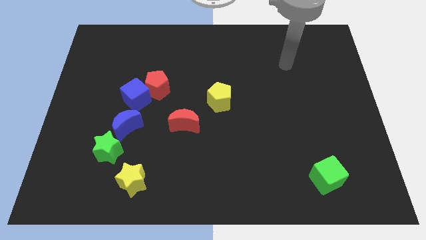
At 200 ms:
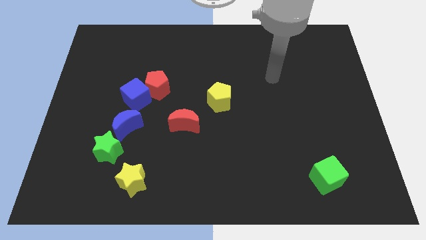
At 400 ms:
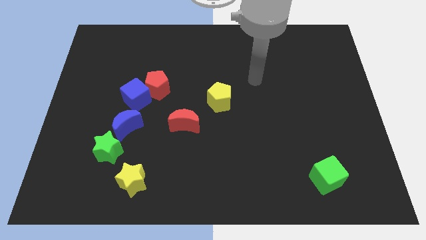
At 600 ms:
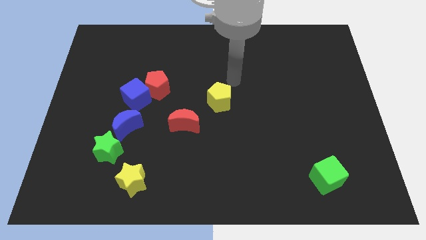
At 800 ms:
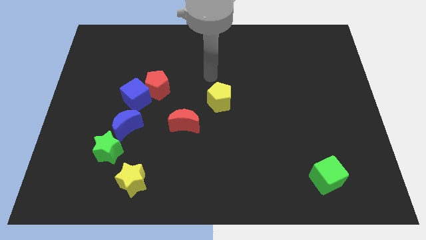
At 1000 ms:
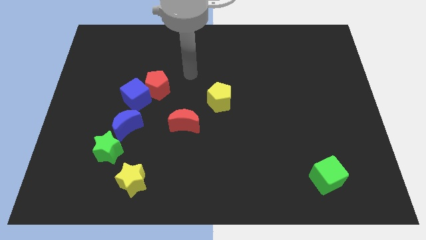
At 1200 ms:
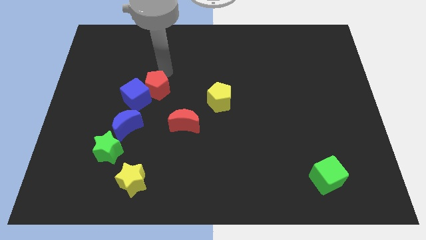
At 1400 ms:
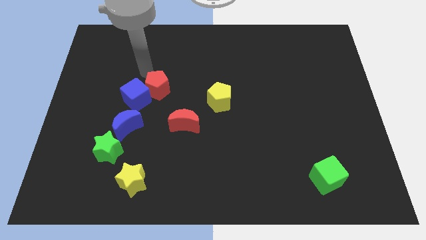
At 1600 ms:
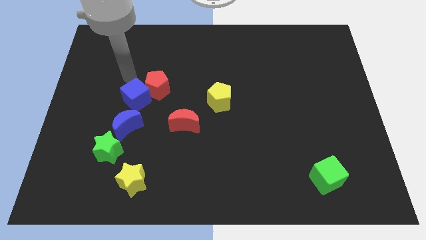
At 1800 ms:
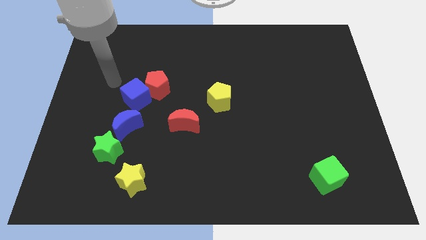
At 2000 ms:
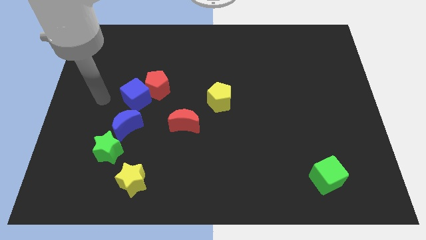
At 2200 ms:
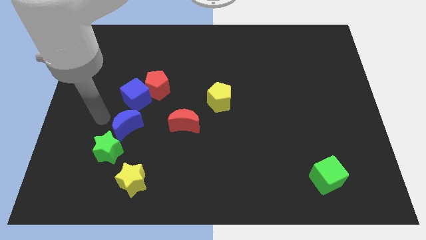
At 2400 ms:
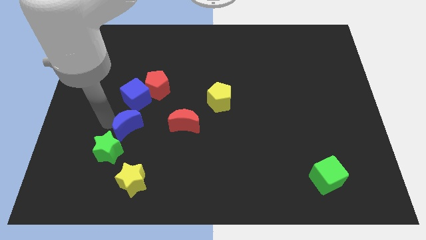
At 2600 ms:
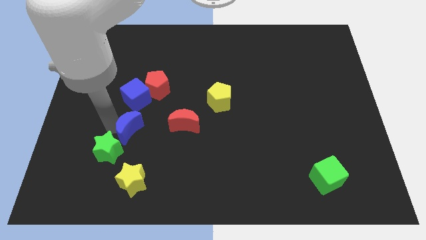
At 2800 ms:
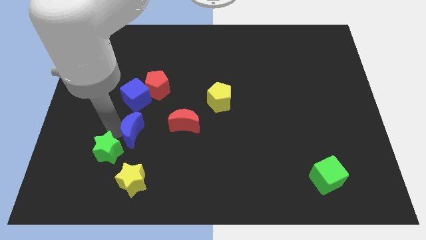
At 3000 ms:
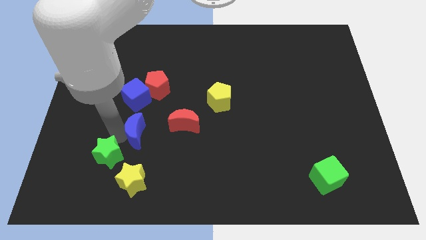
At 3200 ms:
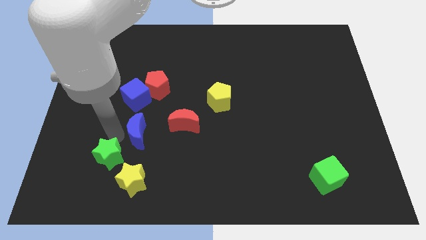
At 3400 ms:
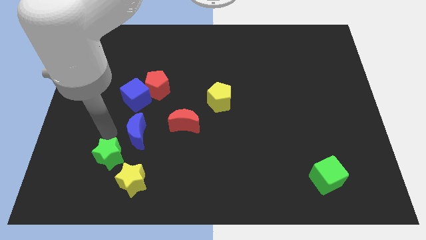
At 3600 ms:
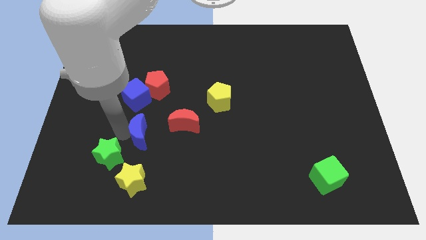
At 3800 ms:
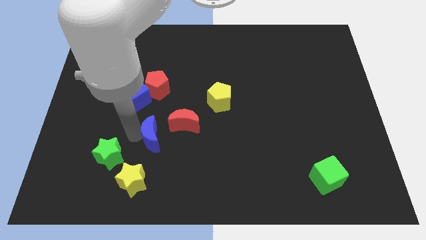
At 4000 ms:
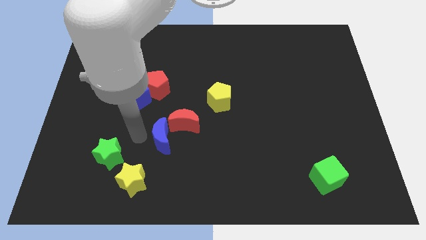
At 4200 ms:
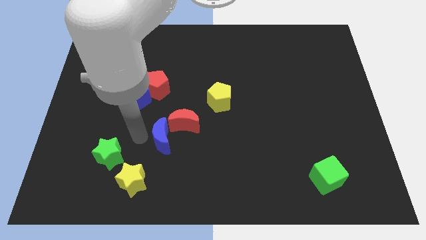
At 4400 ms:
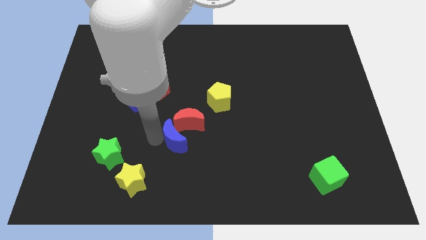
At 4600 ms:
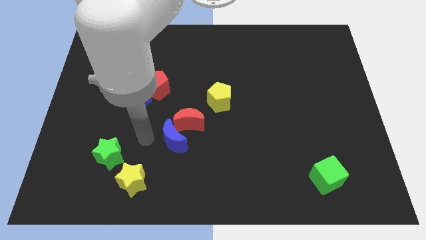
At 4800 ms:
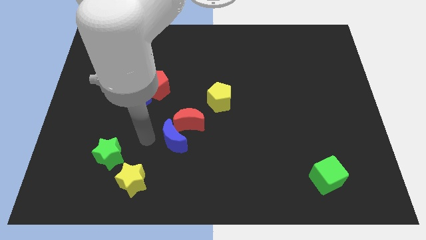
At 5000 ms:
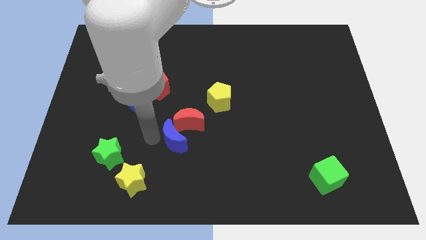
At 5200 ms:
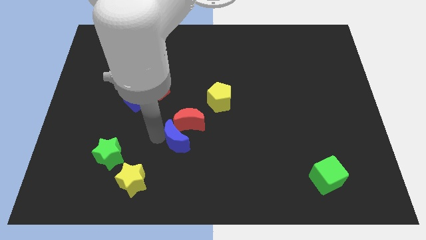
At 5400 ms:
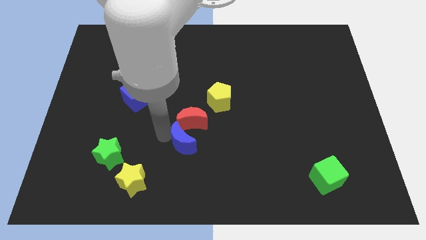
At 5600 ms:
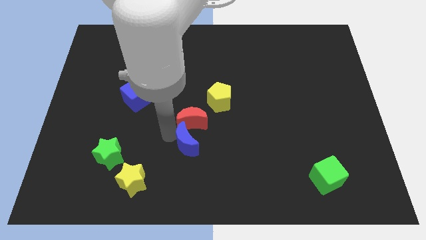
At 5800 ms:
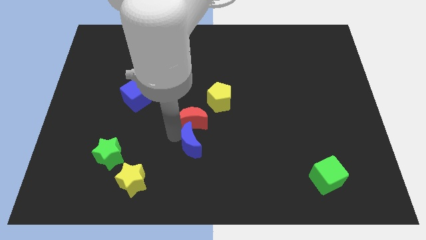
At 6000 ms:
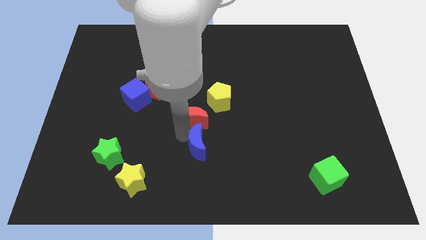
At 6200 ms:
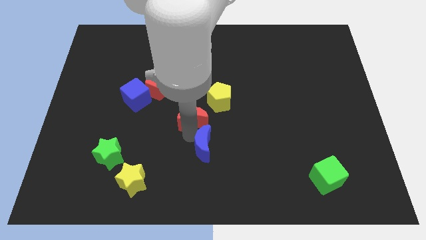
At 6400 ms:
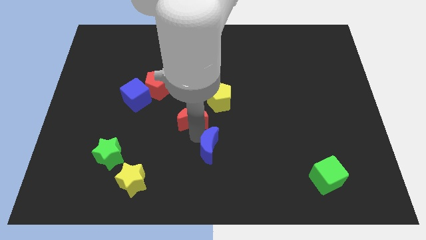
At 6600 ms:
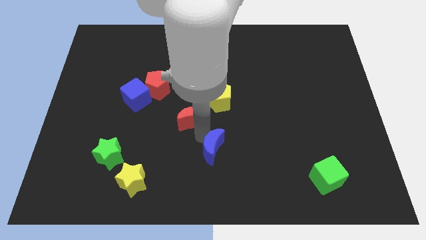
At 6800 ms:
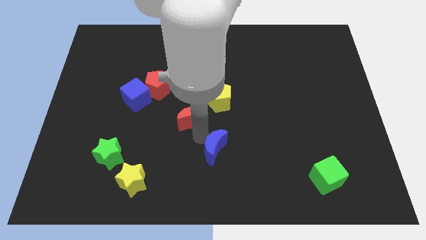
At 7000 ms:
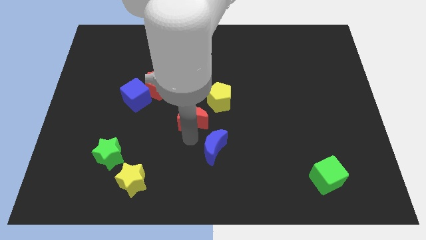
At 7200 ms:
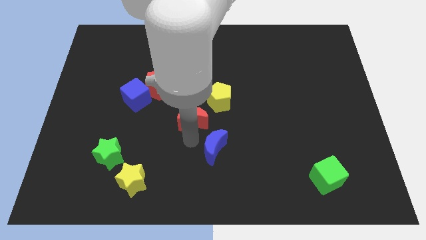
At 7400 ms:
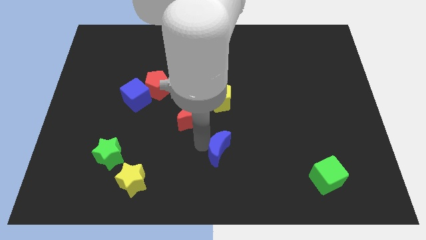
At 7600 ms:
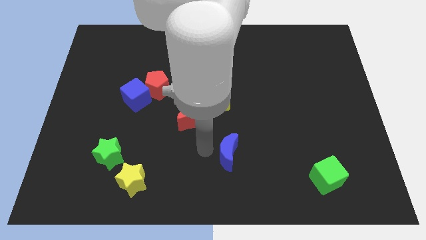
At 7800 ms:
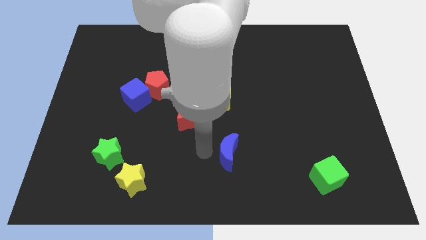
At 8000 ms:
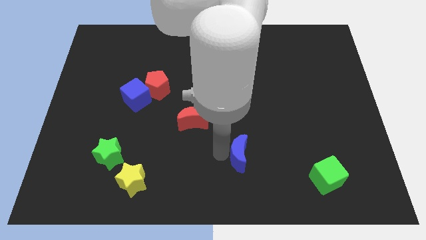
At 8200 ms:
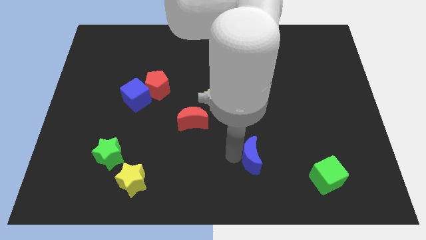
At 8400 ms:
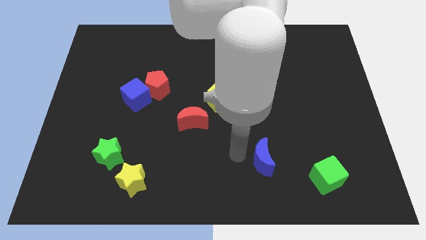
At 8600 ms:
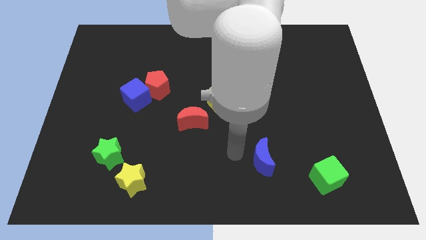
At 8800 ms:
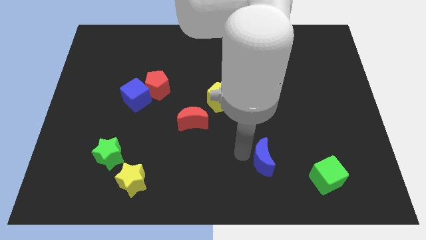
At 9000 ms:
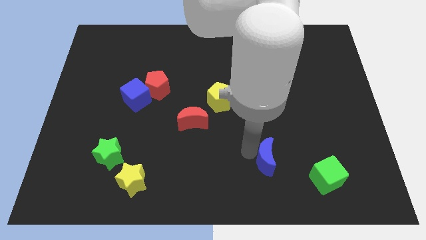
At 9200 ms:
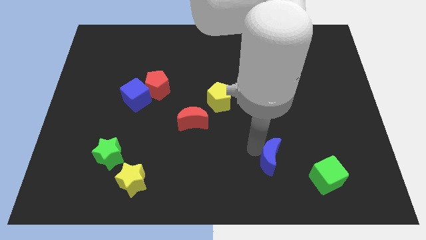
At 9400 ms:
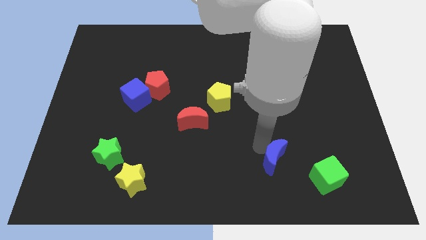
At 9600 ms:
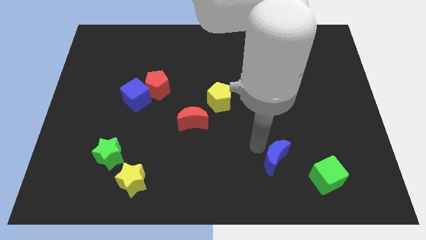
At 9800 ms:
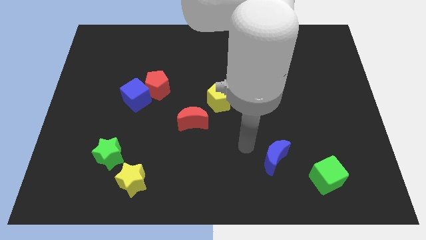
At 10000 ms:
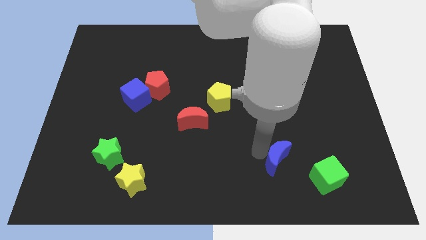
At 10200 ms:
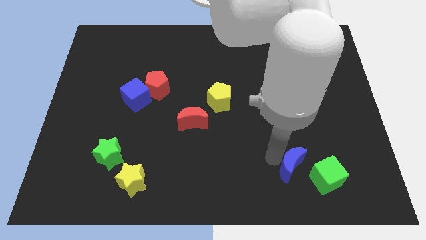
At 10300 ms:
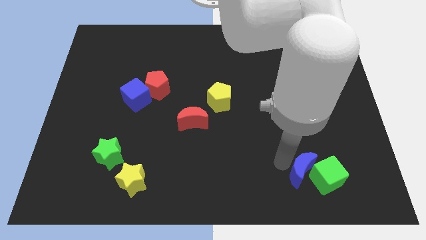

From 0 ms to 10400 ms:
push the blue moon towards the green cube

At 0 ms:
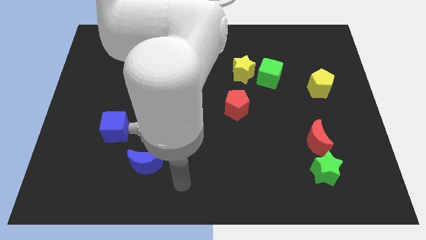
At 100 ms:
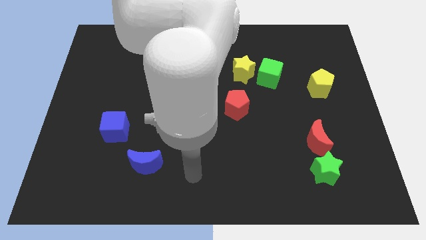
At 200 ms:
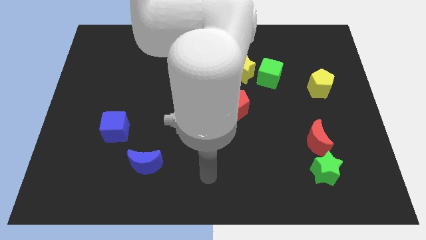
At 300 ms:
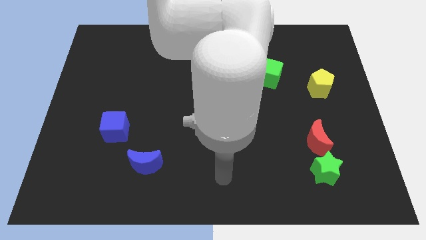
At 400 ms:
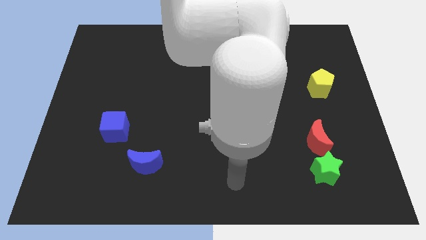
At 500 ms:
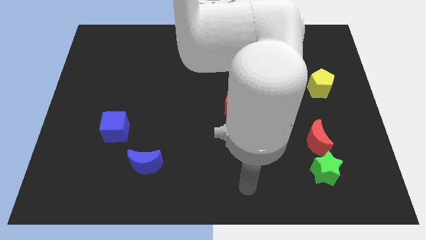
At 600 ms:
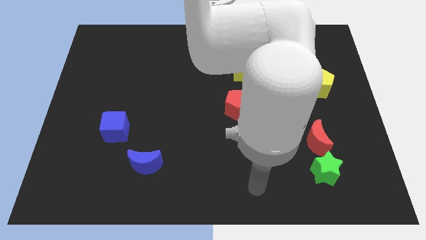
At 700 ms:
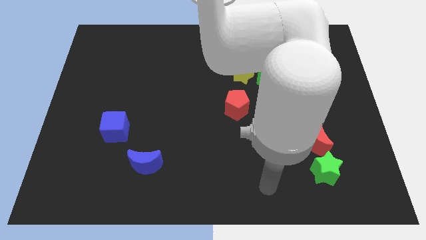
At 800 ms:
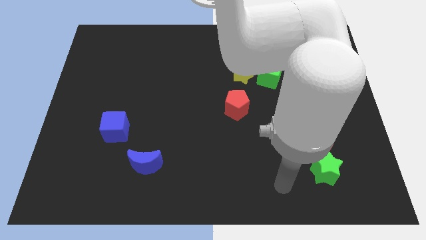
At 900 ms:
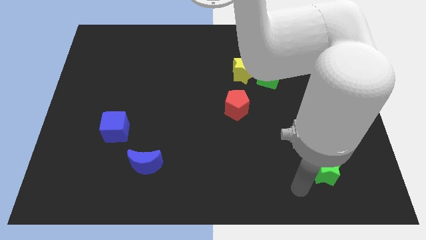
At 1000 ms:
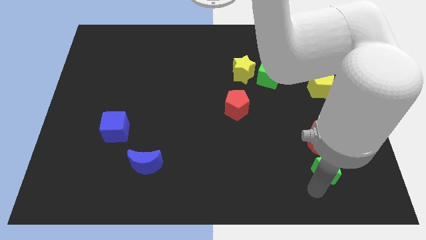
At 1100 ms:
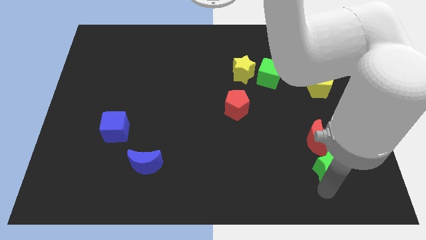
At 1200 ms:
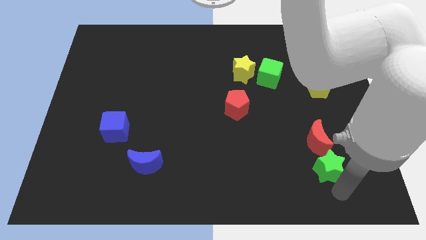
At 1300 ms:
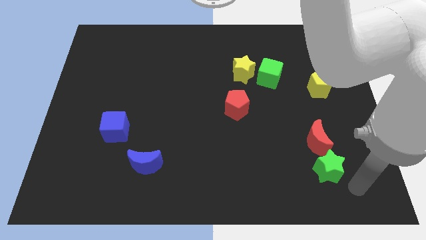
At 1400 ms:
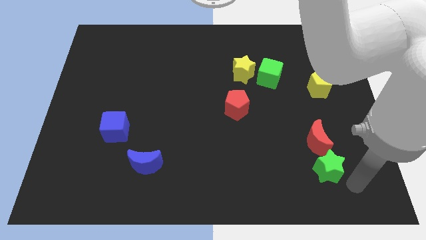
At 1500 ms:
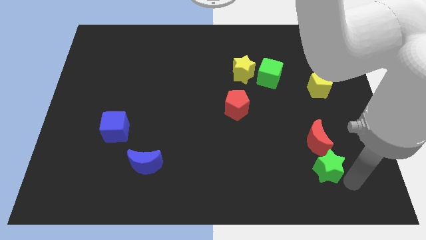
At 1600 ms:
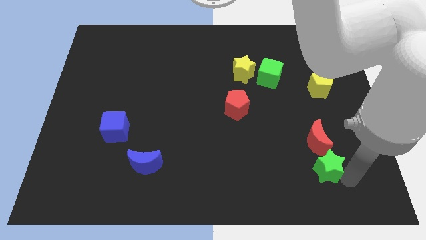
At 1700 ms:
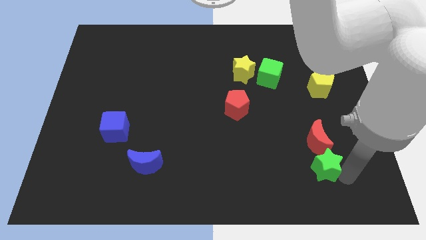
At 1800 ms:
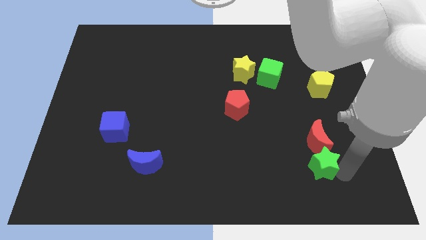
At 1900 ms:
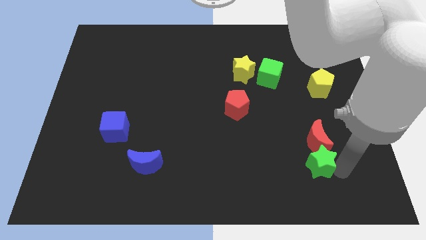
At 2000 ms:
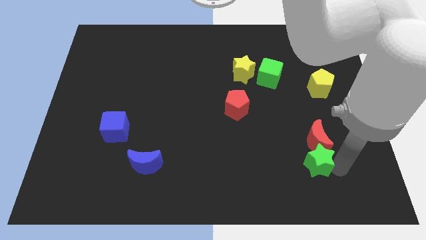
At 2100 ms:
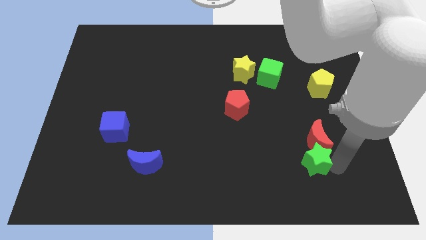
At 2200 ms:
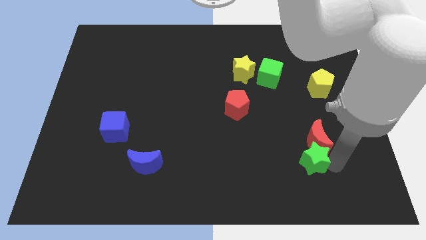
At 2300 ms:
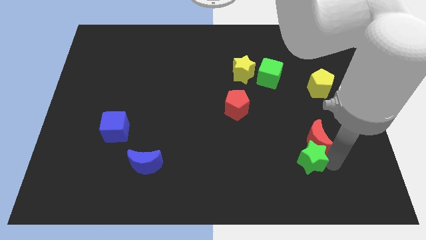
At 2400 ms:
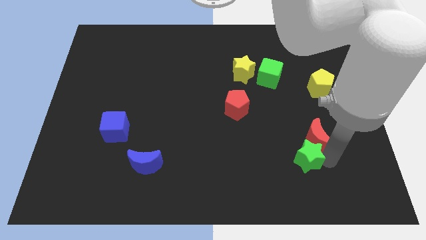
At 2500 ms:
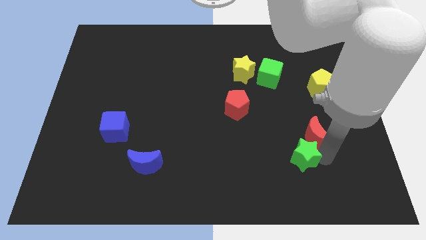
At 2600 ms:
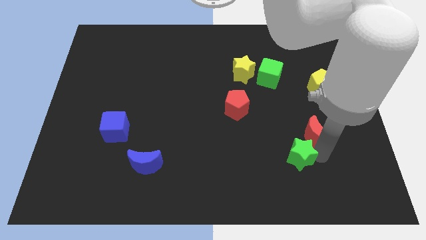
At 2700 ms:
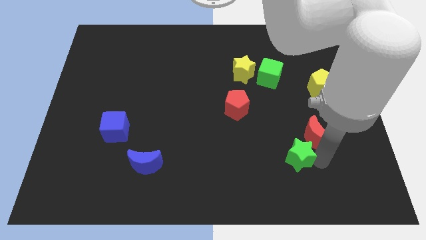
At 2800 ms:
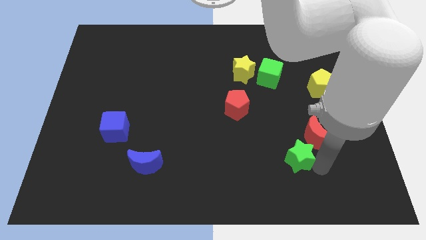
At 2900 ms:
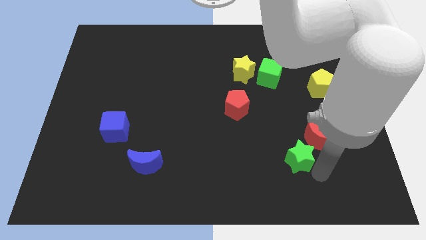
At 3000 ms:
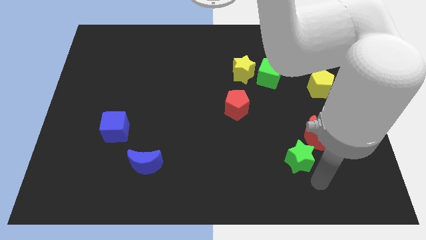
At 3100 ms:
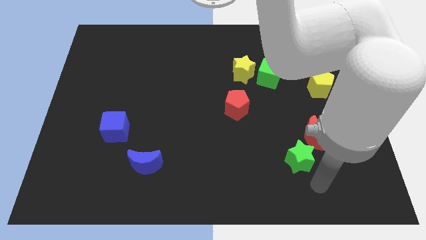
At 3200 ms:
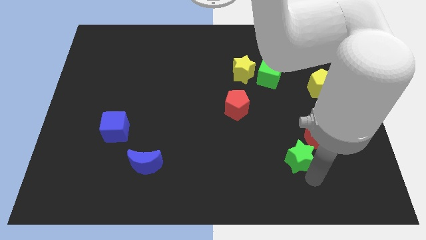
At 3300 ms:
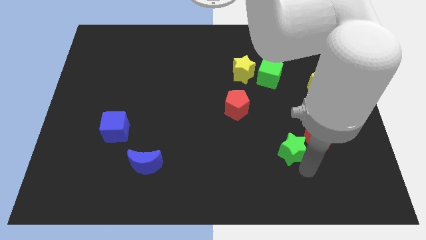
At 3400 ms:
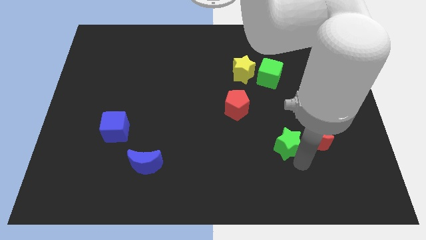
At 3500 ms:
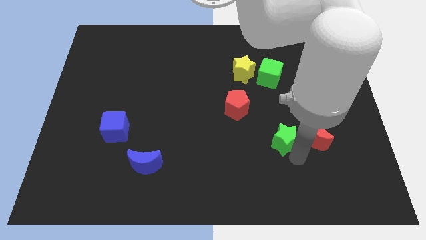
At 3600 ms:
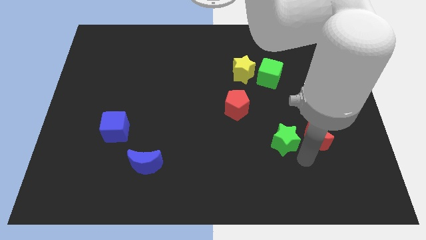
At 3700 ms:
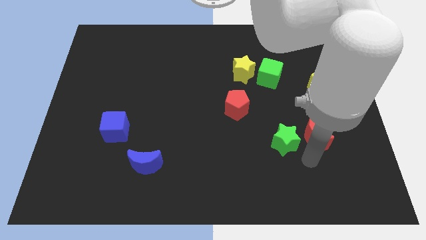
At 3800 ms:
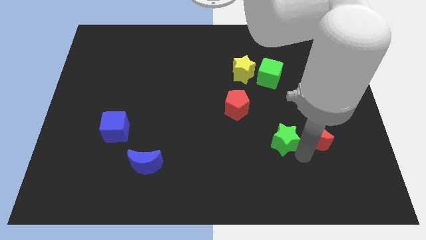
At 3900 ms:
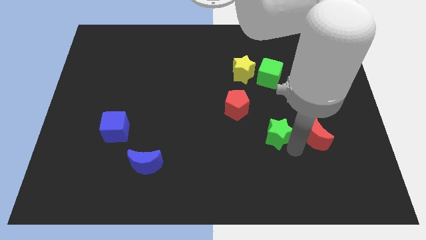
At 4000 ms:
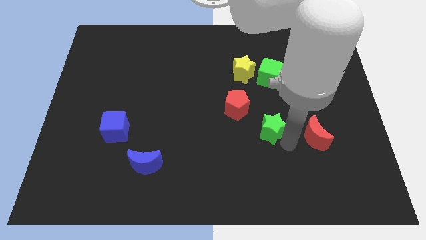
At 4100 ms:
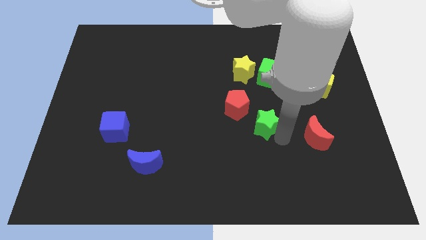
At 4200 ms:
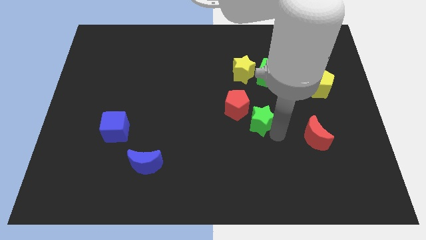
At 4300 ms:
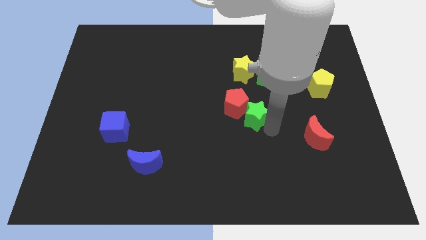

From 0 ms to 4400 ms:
slide the green star next to the red pentagon
